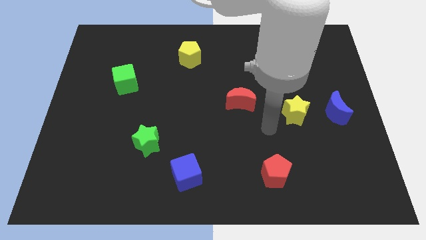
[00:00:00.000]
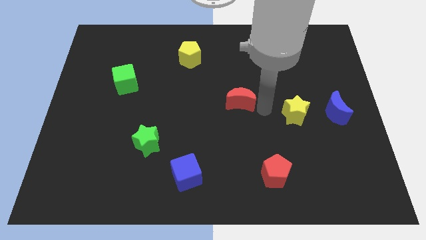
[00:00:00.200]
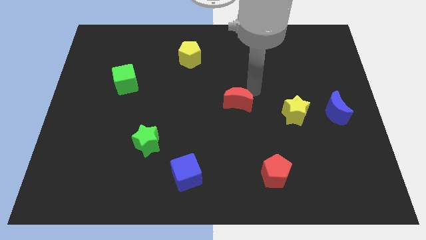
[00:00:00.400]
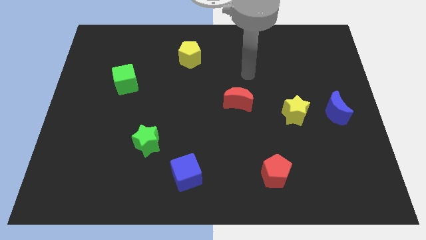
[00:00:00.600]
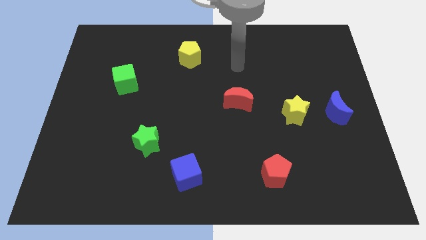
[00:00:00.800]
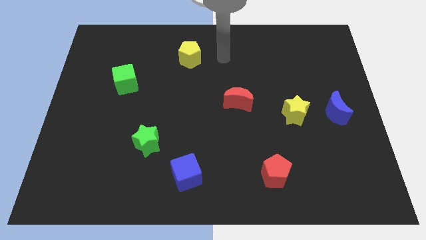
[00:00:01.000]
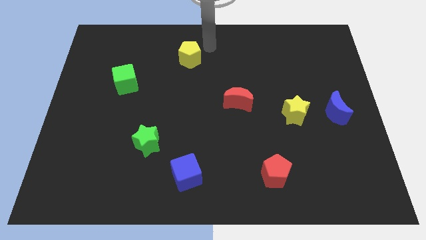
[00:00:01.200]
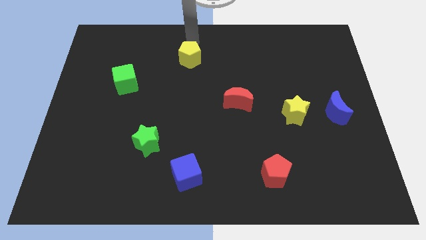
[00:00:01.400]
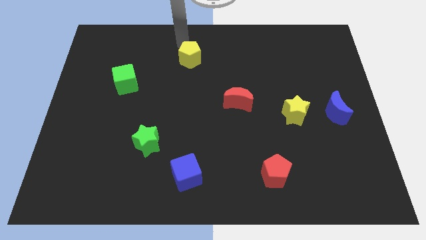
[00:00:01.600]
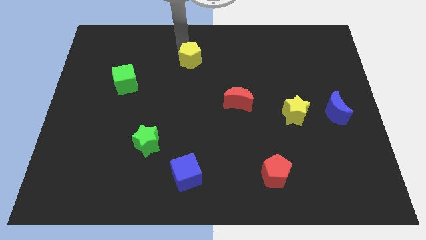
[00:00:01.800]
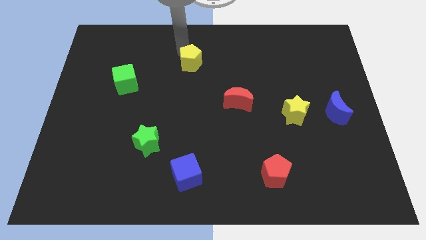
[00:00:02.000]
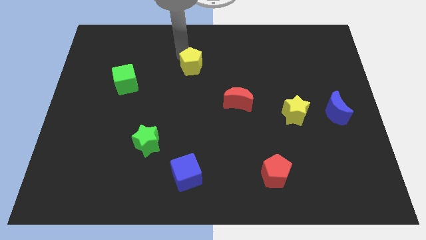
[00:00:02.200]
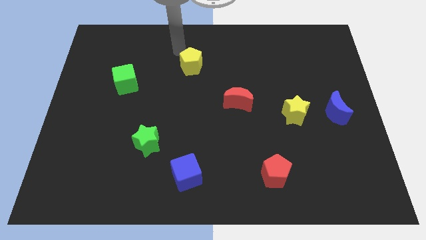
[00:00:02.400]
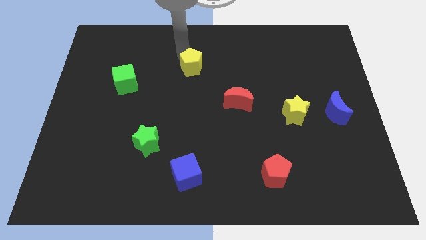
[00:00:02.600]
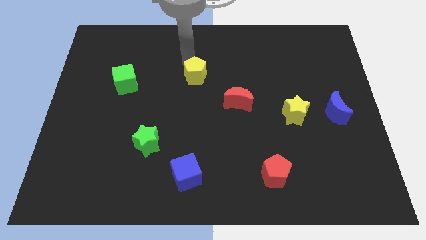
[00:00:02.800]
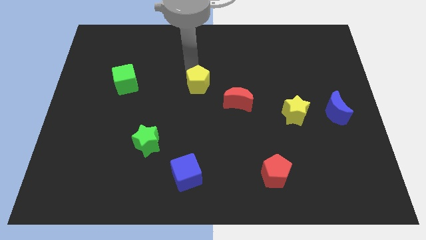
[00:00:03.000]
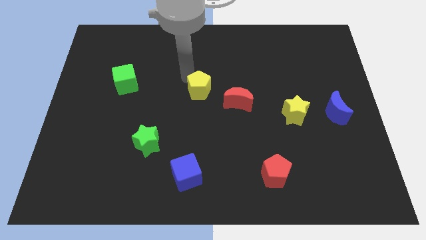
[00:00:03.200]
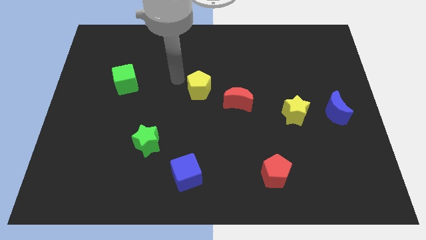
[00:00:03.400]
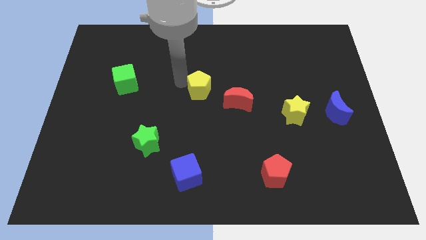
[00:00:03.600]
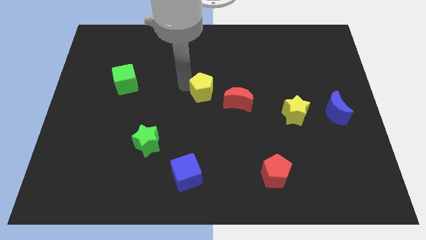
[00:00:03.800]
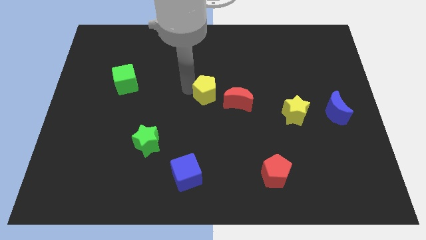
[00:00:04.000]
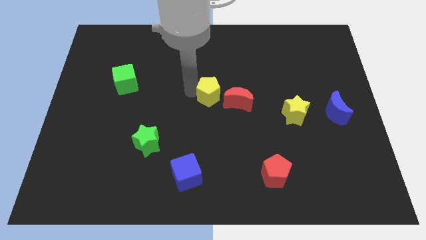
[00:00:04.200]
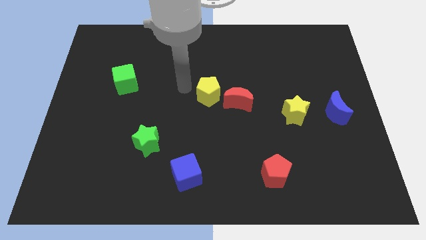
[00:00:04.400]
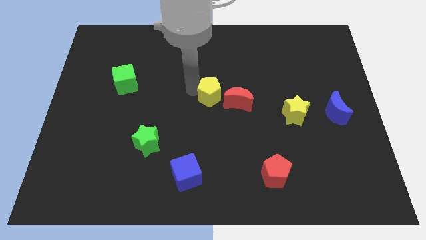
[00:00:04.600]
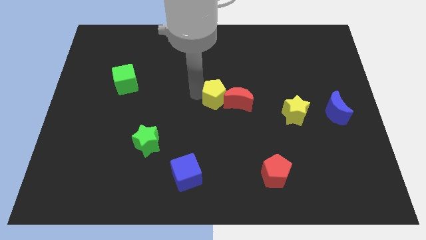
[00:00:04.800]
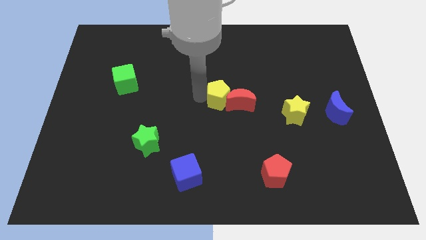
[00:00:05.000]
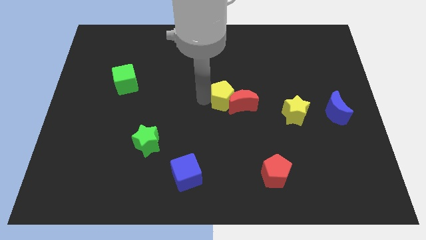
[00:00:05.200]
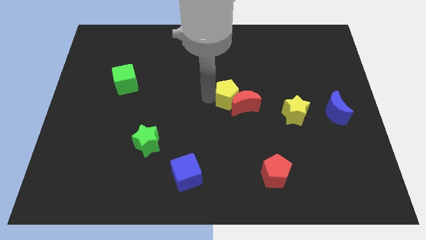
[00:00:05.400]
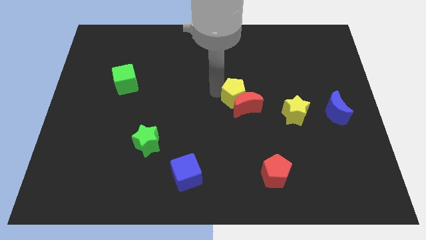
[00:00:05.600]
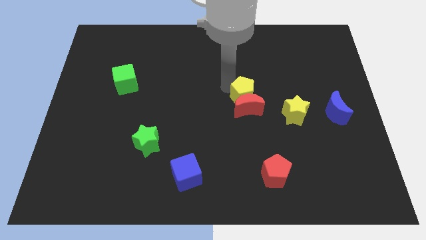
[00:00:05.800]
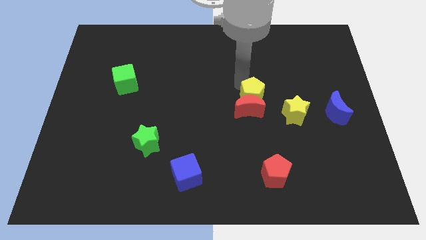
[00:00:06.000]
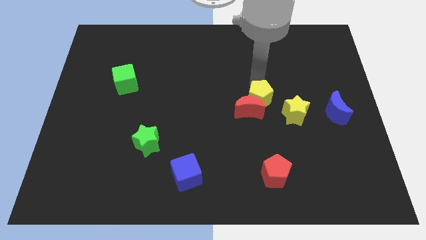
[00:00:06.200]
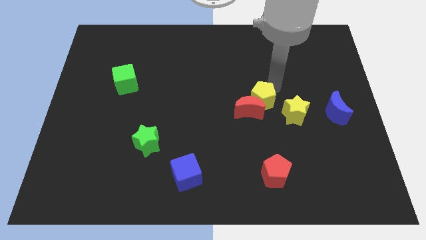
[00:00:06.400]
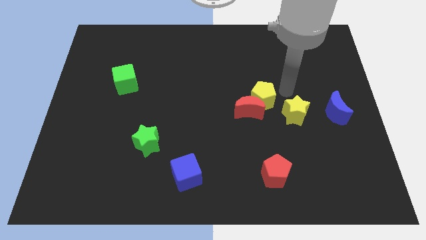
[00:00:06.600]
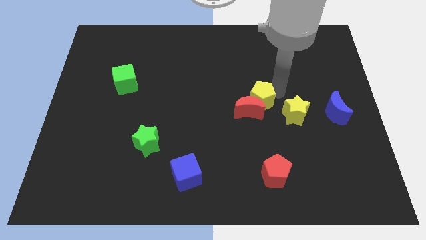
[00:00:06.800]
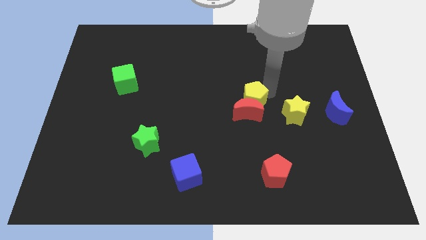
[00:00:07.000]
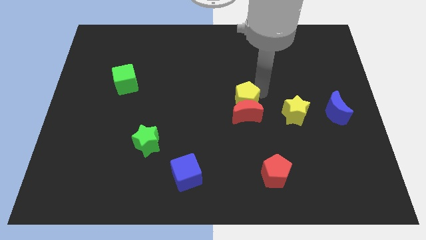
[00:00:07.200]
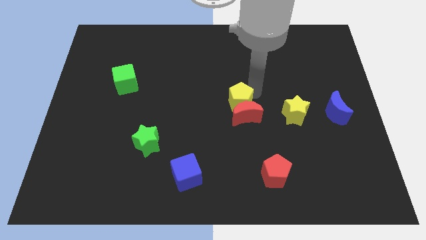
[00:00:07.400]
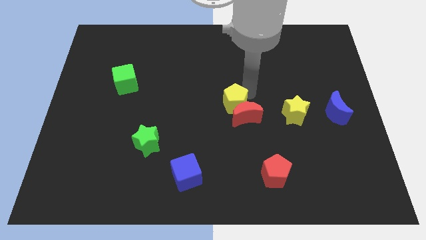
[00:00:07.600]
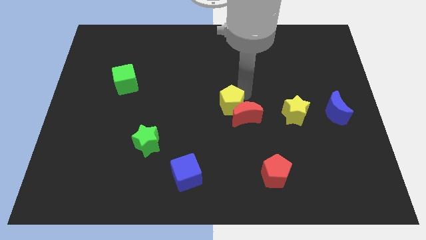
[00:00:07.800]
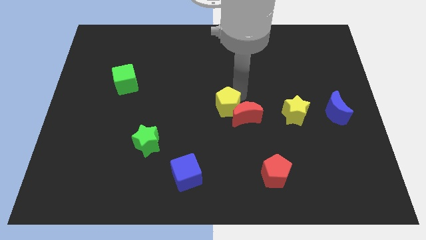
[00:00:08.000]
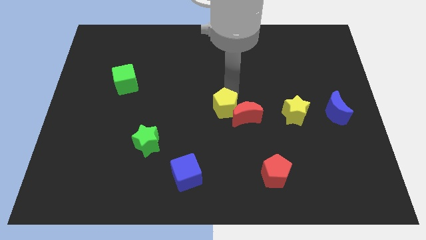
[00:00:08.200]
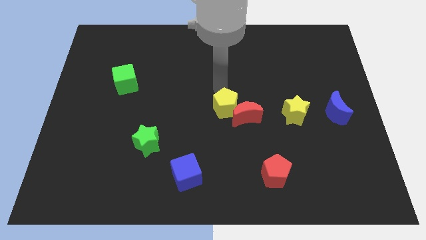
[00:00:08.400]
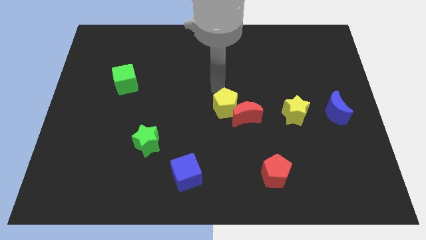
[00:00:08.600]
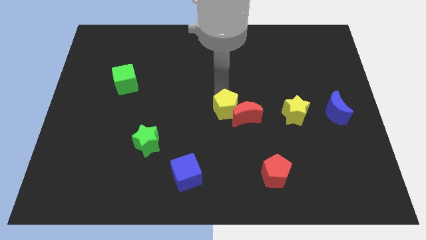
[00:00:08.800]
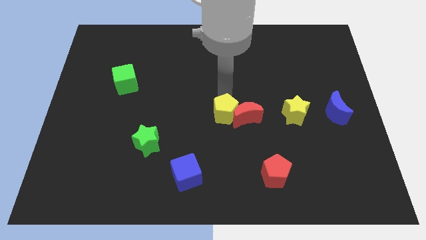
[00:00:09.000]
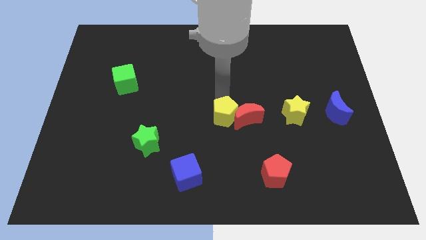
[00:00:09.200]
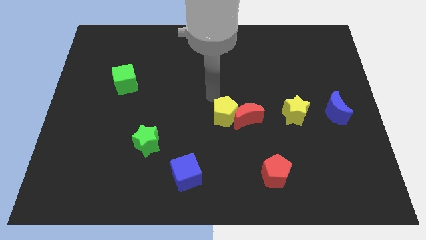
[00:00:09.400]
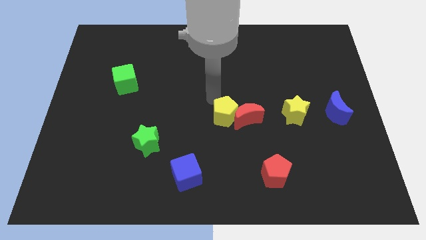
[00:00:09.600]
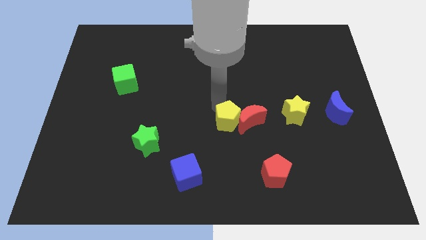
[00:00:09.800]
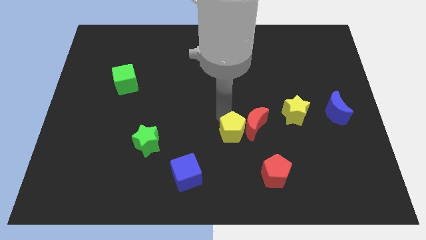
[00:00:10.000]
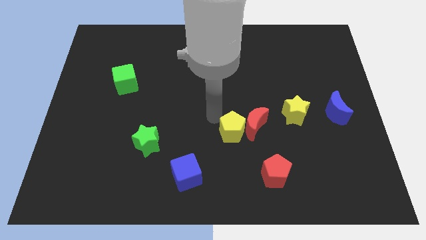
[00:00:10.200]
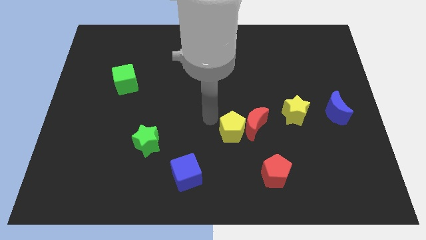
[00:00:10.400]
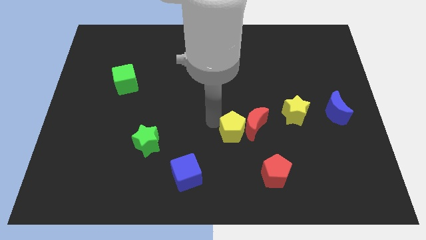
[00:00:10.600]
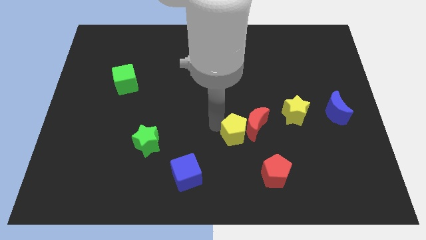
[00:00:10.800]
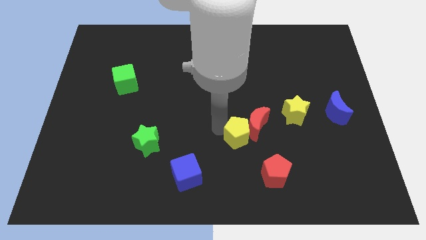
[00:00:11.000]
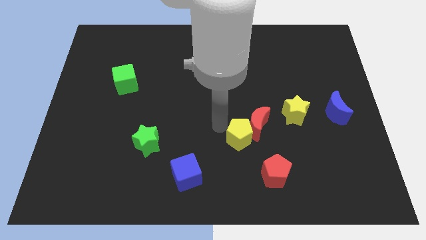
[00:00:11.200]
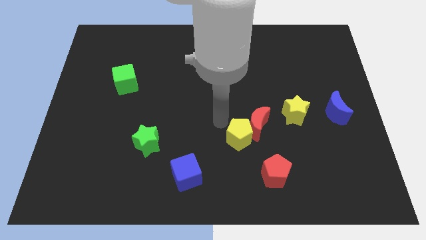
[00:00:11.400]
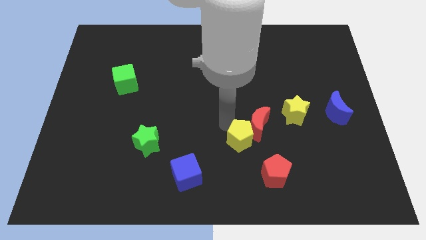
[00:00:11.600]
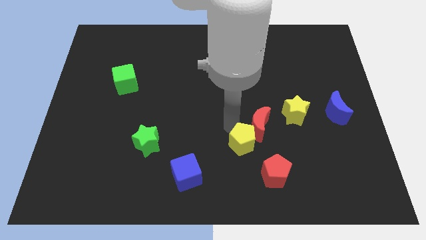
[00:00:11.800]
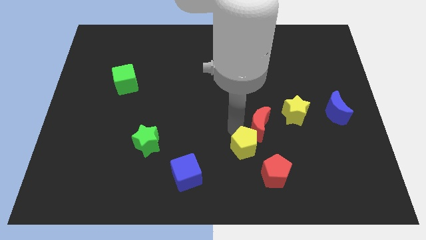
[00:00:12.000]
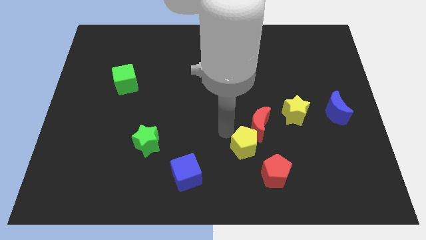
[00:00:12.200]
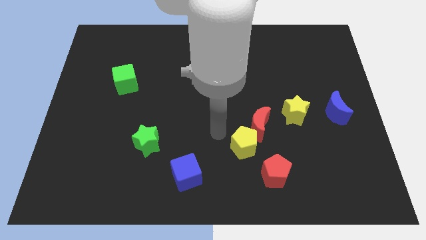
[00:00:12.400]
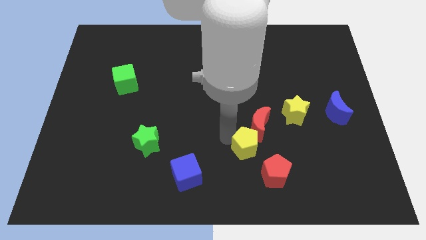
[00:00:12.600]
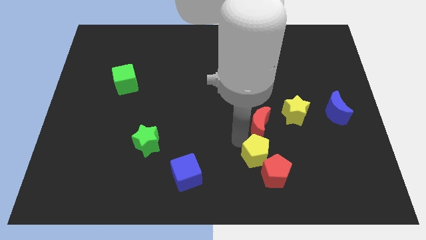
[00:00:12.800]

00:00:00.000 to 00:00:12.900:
push the yellow pentagon to the red pentagon

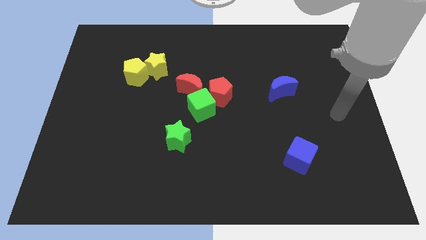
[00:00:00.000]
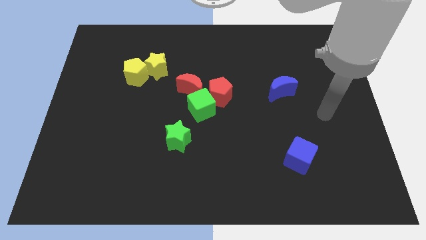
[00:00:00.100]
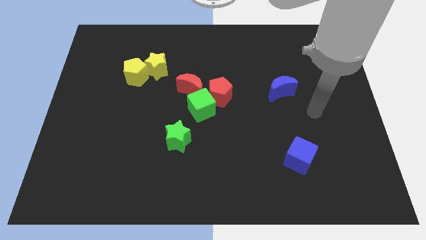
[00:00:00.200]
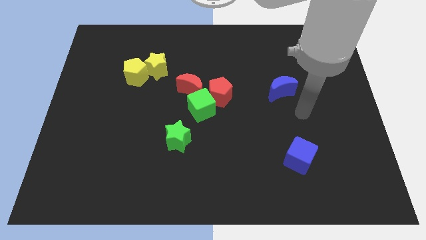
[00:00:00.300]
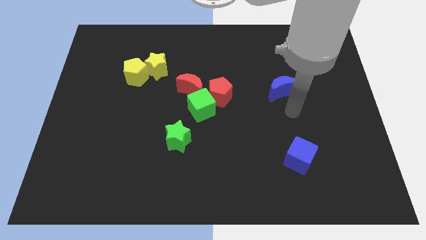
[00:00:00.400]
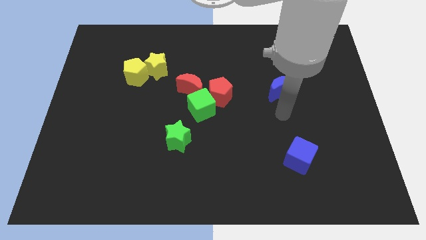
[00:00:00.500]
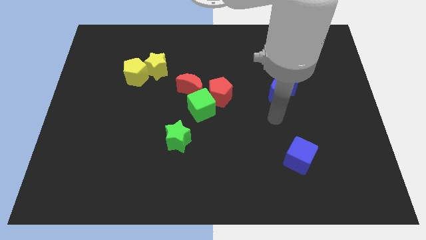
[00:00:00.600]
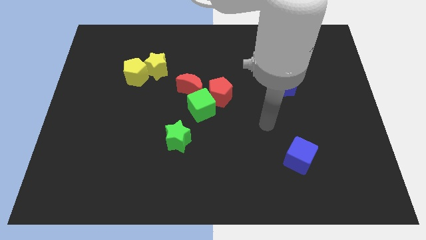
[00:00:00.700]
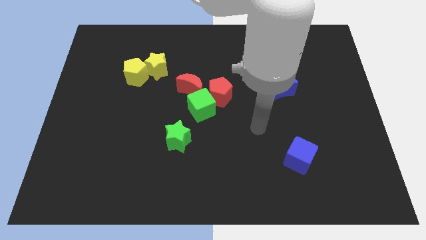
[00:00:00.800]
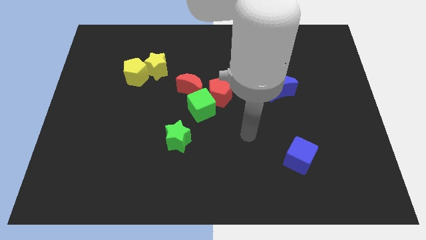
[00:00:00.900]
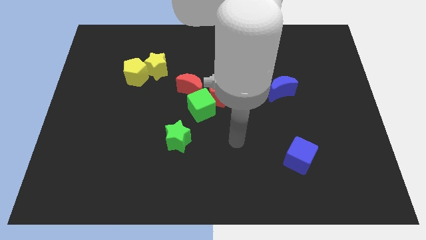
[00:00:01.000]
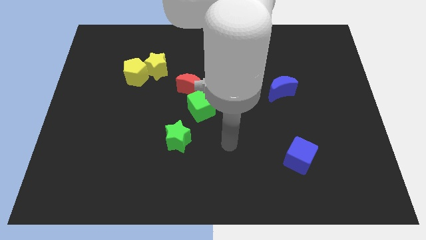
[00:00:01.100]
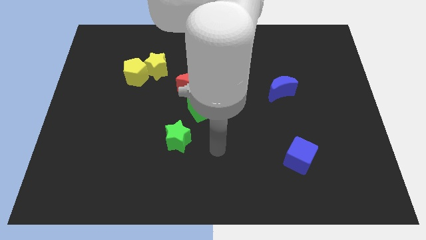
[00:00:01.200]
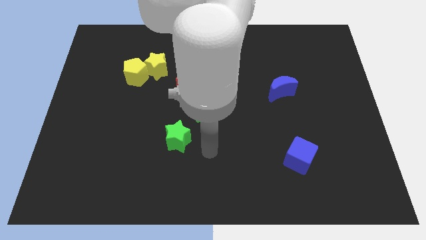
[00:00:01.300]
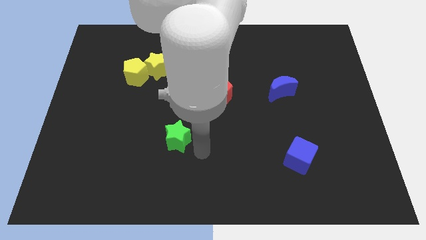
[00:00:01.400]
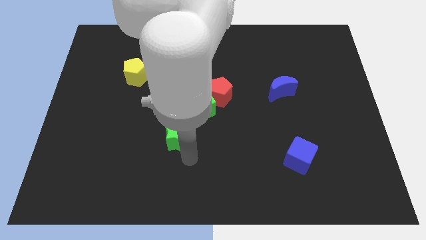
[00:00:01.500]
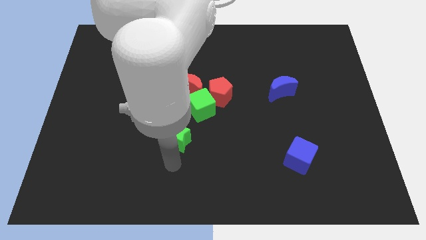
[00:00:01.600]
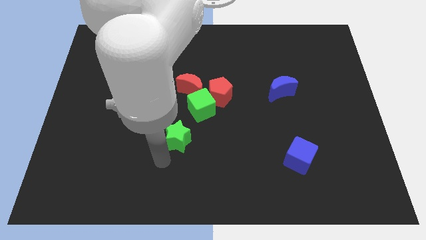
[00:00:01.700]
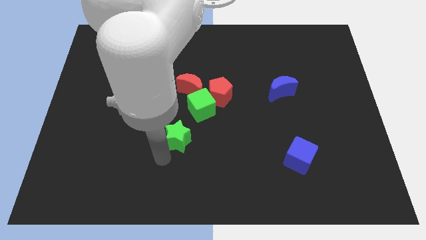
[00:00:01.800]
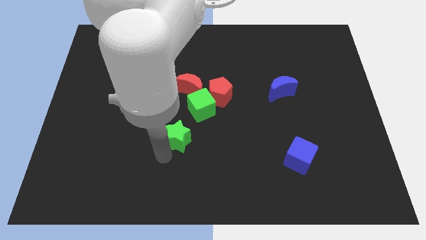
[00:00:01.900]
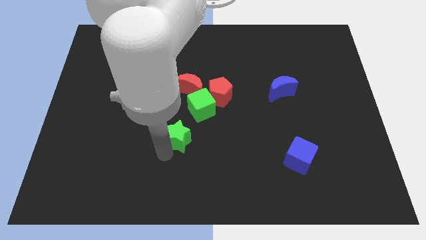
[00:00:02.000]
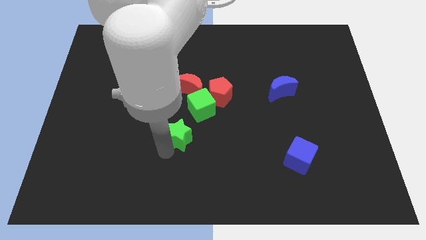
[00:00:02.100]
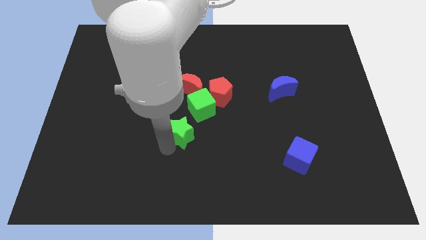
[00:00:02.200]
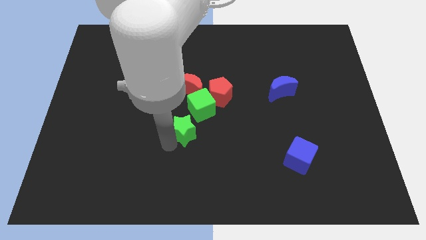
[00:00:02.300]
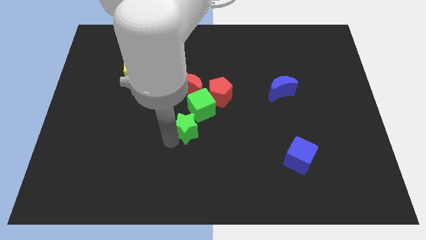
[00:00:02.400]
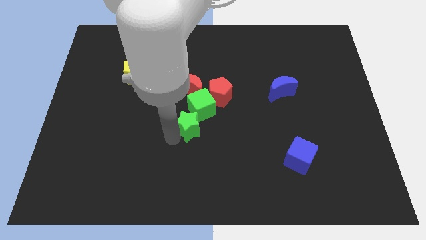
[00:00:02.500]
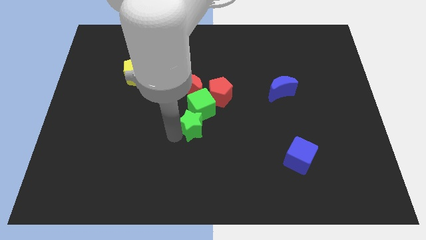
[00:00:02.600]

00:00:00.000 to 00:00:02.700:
slide the green star next to the green cube
